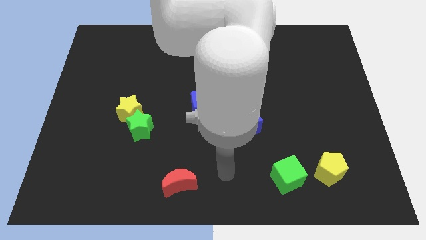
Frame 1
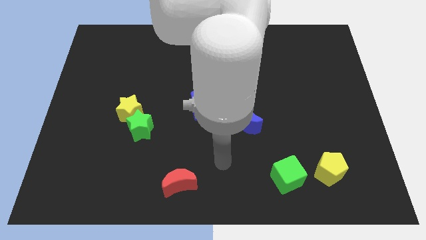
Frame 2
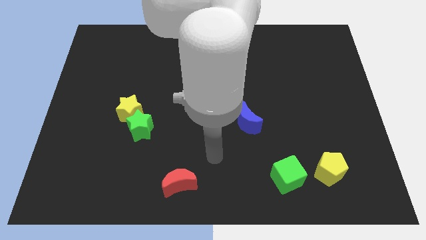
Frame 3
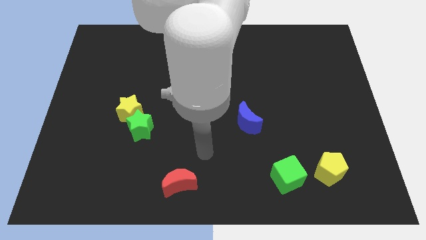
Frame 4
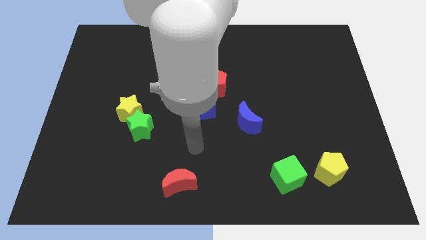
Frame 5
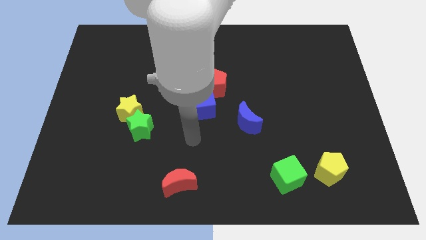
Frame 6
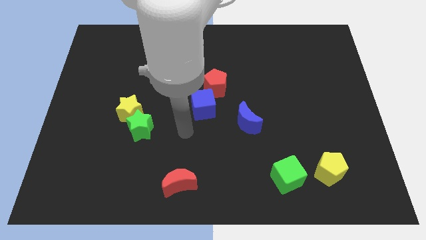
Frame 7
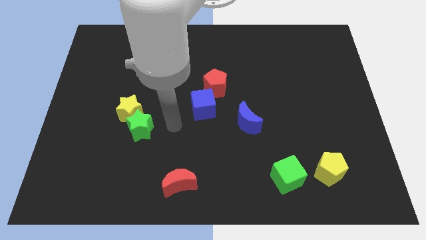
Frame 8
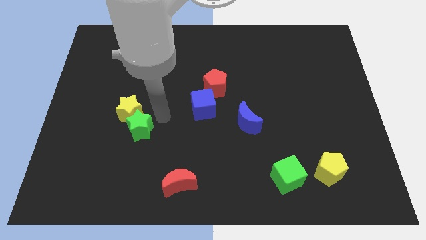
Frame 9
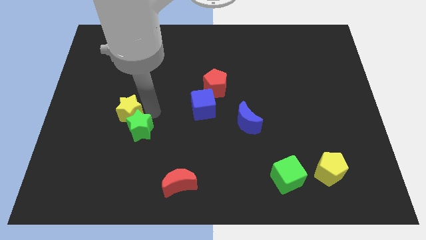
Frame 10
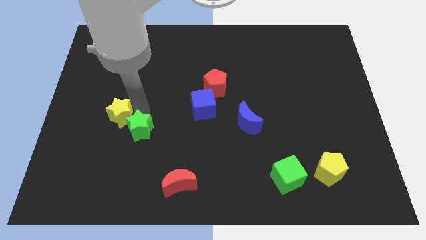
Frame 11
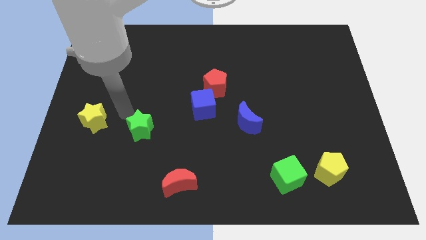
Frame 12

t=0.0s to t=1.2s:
separate the green star from the yellow star

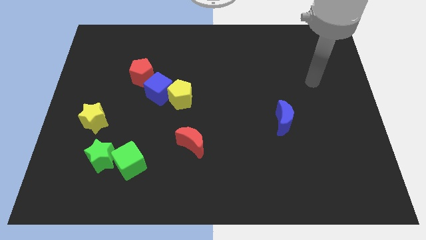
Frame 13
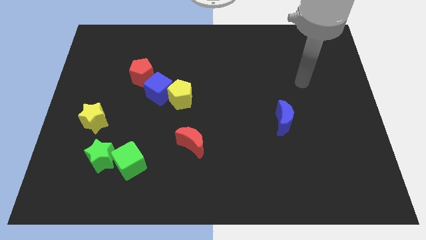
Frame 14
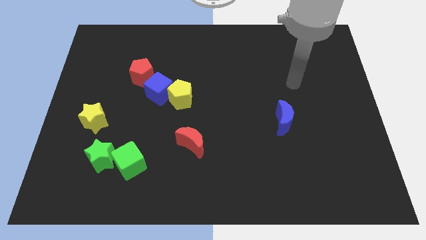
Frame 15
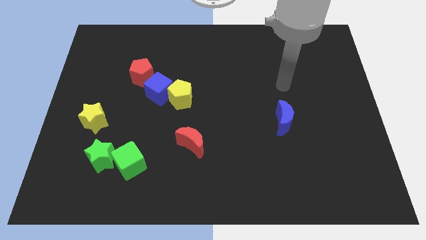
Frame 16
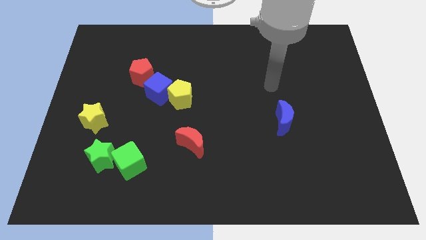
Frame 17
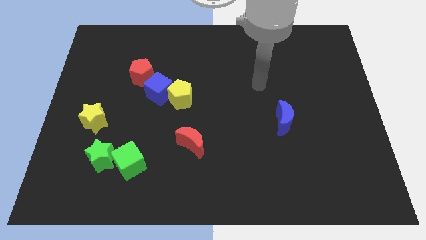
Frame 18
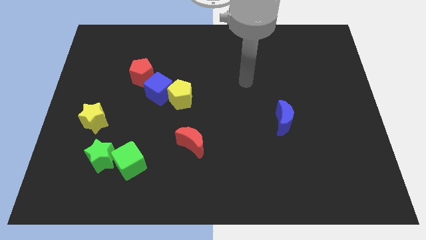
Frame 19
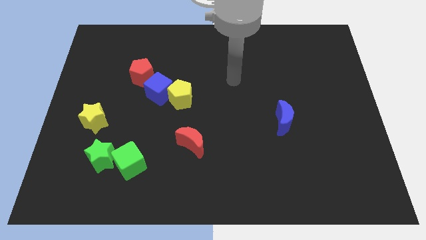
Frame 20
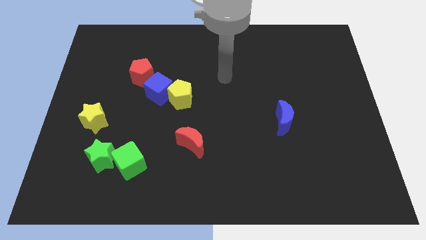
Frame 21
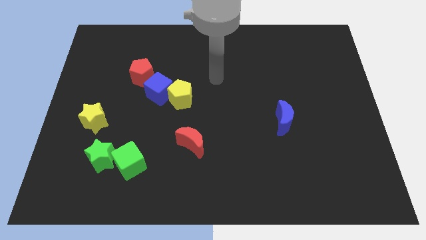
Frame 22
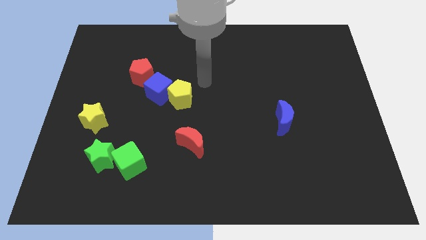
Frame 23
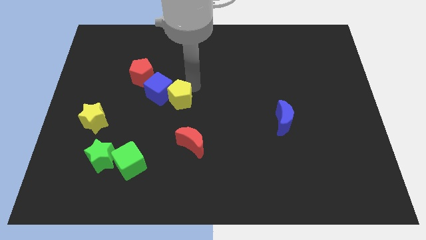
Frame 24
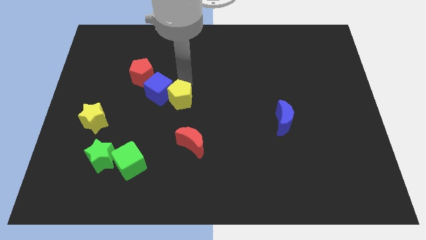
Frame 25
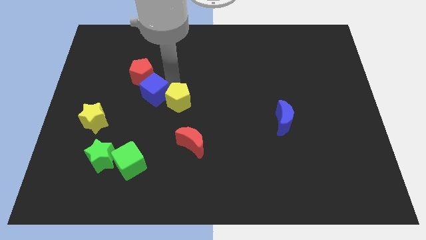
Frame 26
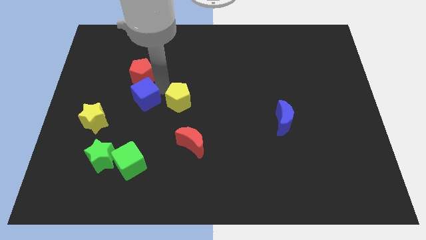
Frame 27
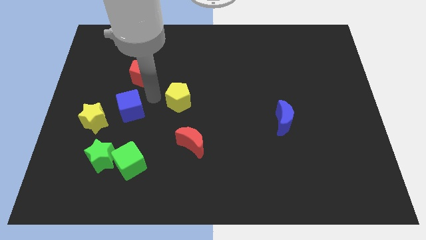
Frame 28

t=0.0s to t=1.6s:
separate the yellow pentagon from the blue cube

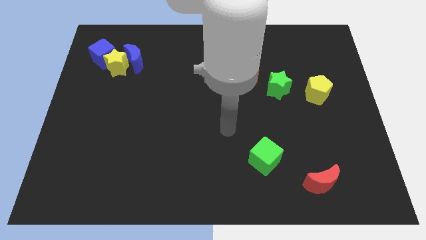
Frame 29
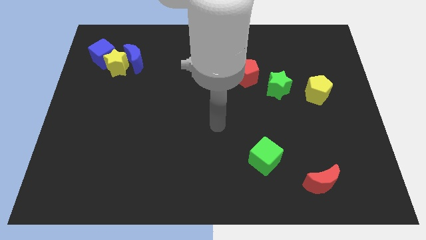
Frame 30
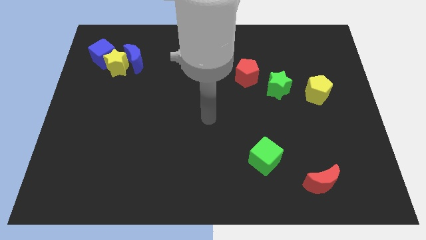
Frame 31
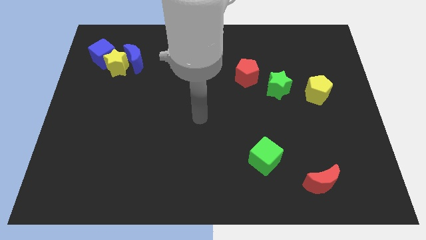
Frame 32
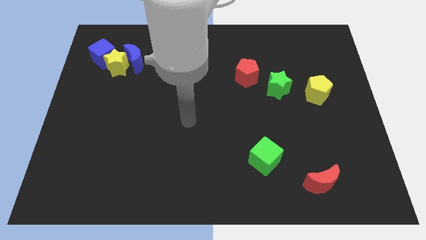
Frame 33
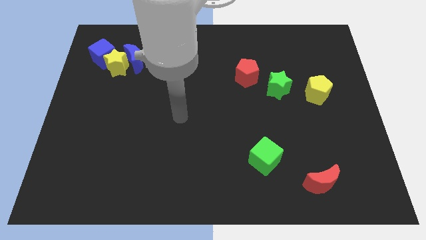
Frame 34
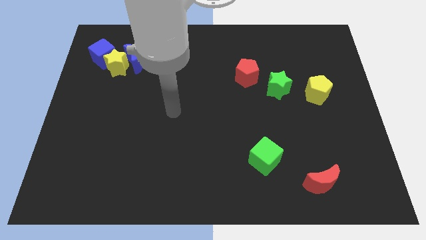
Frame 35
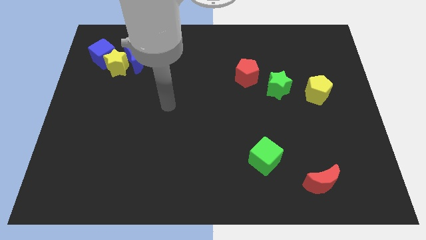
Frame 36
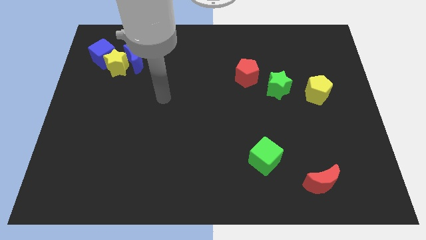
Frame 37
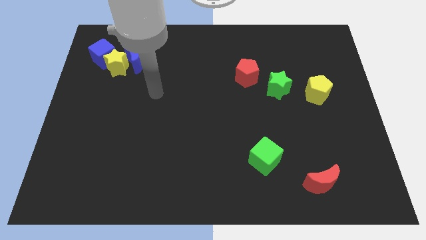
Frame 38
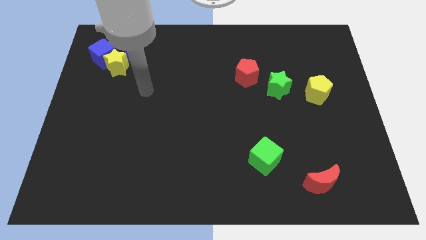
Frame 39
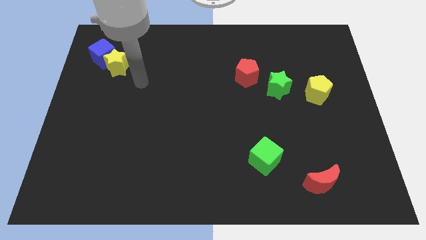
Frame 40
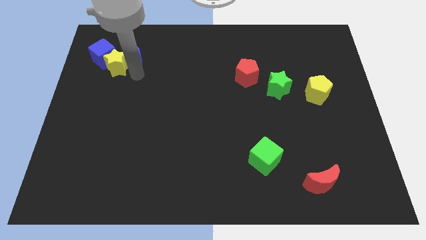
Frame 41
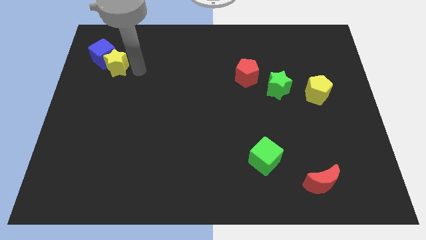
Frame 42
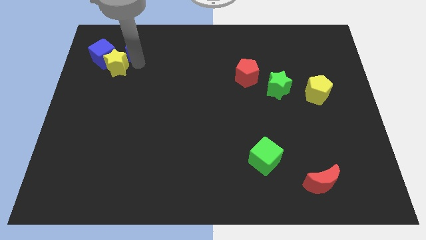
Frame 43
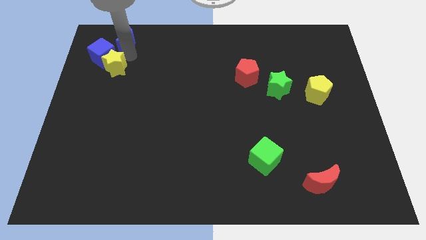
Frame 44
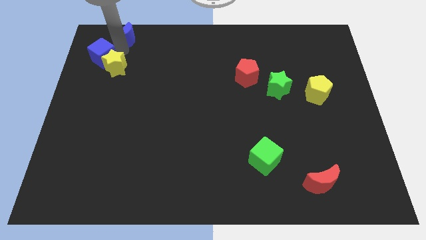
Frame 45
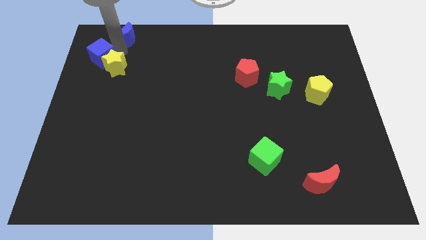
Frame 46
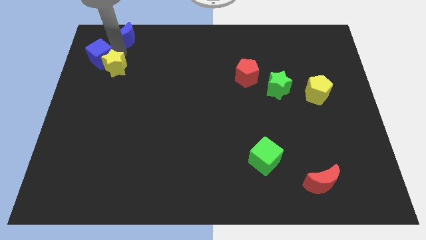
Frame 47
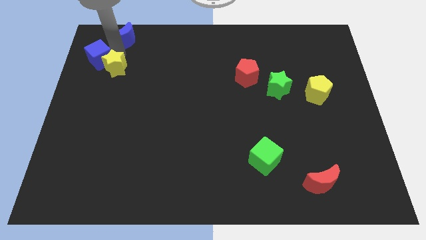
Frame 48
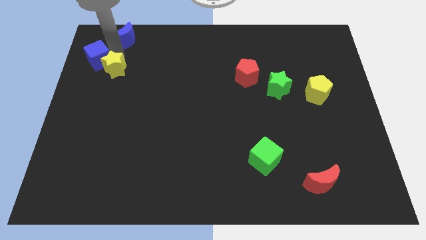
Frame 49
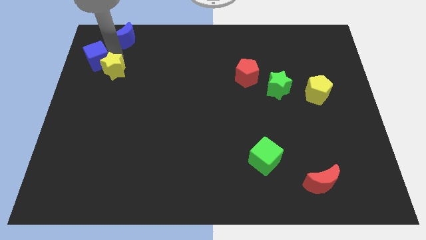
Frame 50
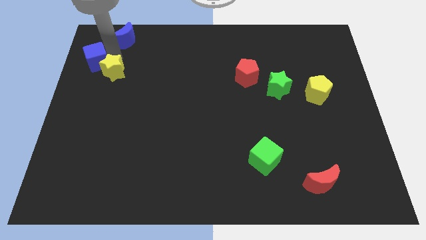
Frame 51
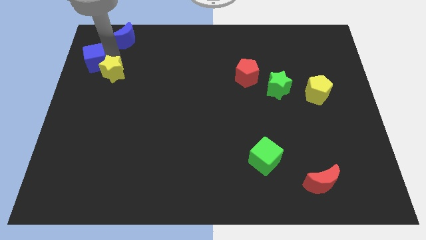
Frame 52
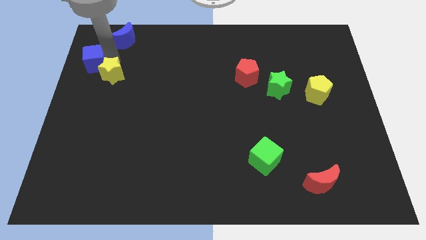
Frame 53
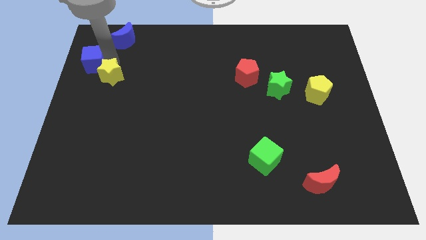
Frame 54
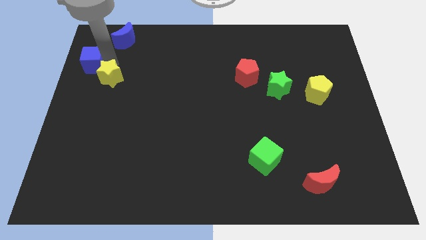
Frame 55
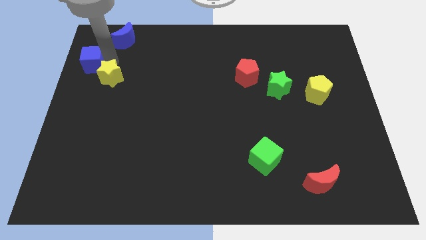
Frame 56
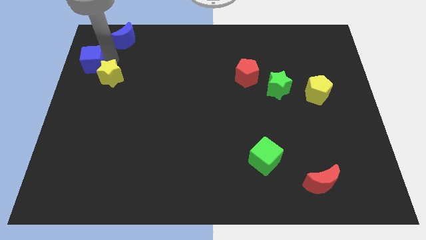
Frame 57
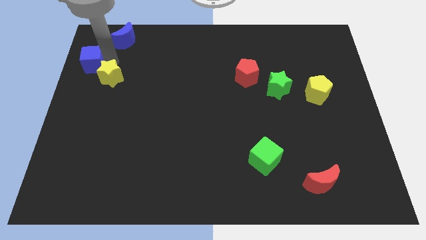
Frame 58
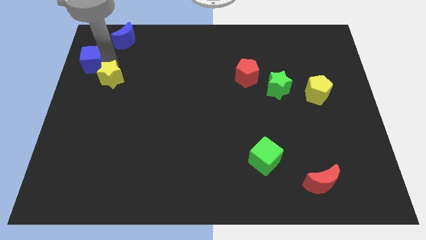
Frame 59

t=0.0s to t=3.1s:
move the yellow star away from the blue moon and blue cube

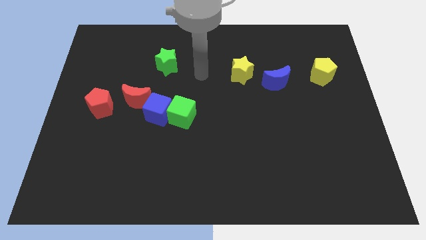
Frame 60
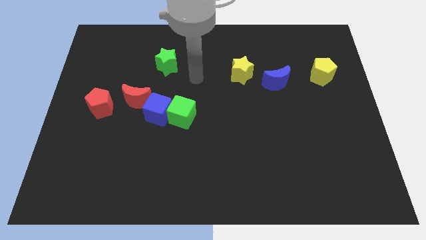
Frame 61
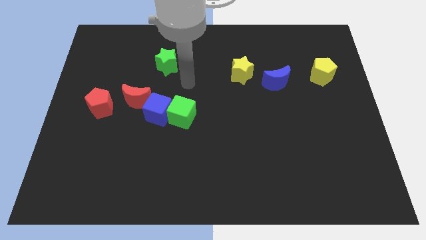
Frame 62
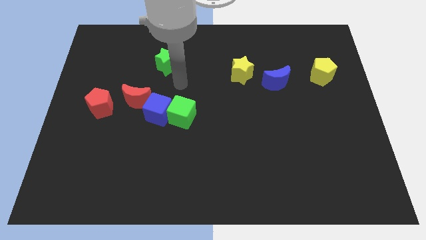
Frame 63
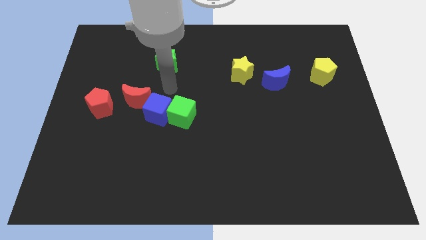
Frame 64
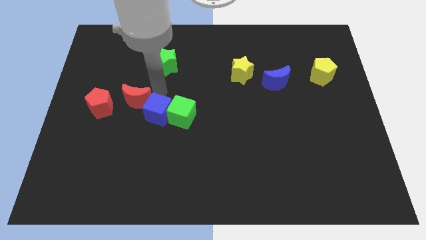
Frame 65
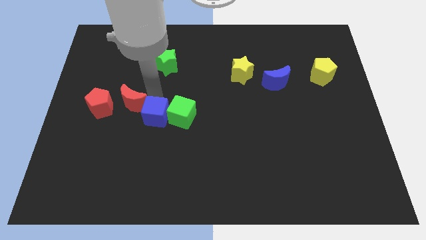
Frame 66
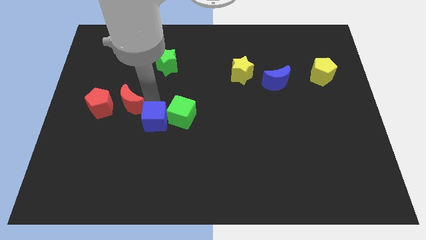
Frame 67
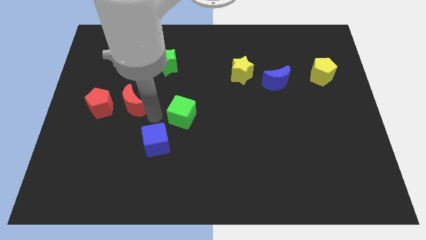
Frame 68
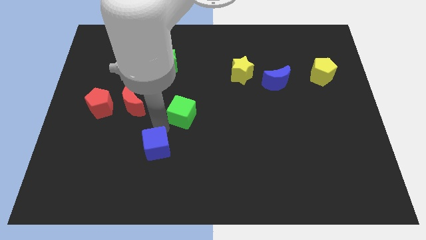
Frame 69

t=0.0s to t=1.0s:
separate the green cube from the blue cube

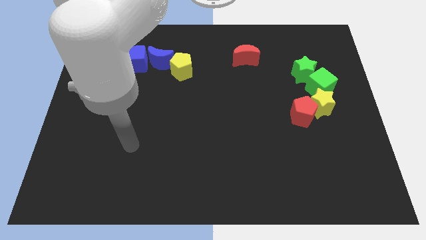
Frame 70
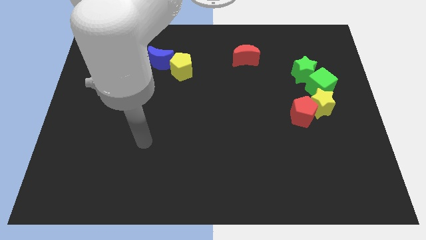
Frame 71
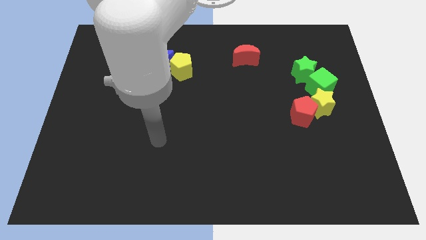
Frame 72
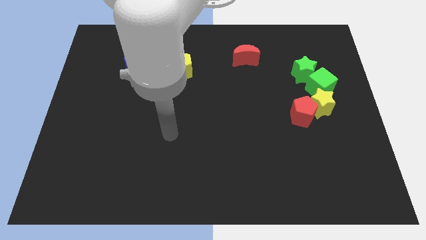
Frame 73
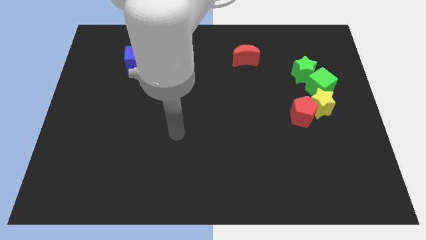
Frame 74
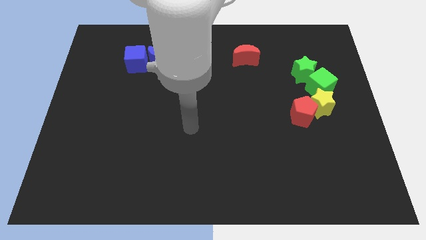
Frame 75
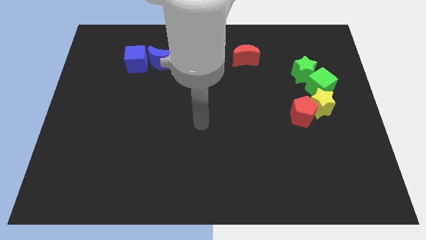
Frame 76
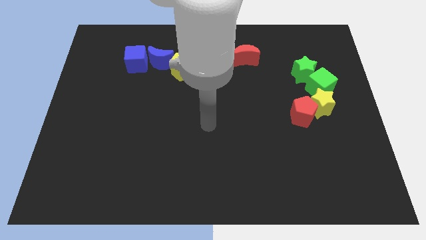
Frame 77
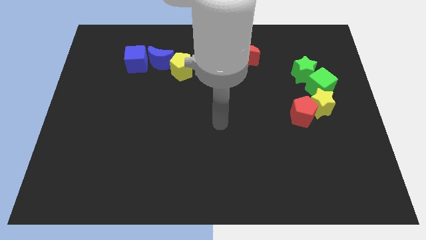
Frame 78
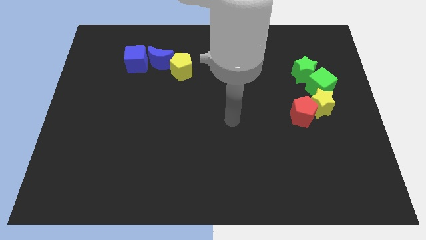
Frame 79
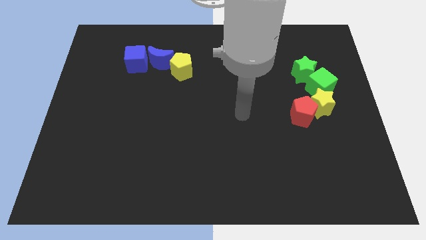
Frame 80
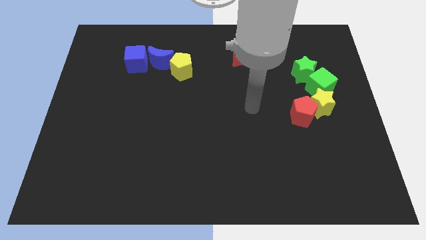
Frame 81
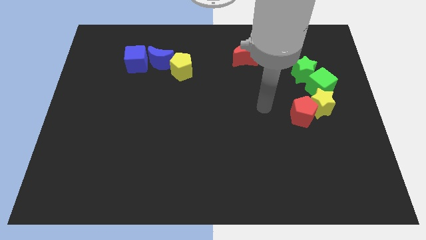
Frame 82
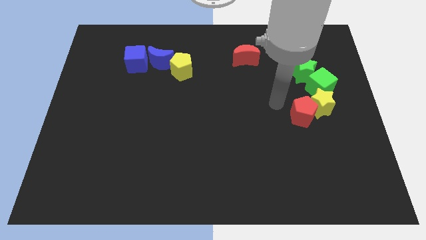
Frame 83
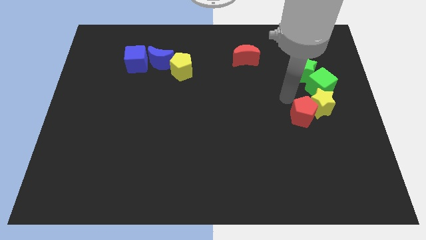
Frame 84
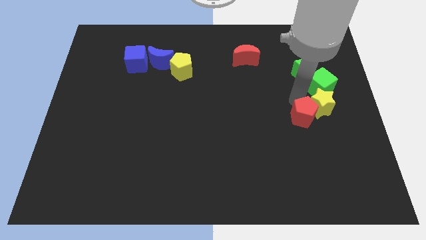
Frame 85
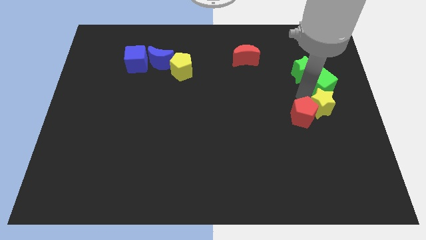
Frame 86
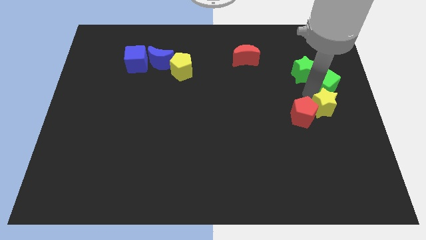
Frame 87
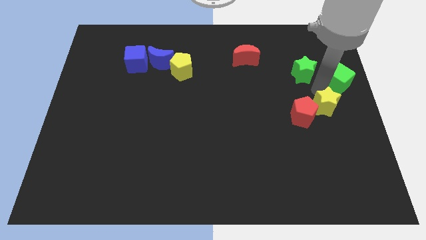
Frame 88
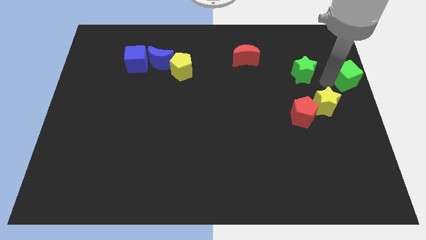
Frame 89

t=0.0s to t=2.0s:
separate the green star from the green cube

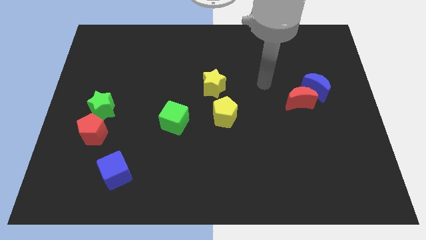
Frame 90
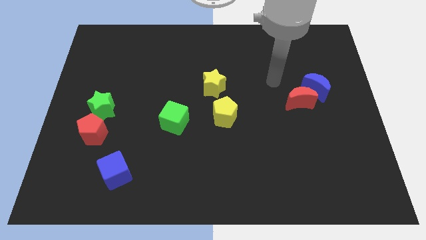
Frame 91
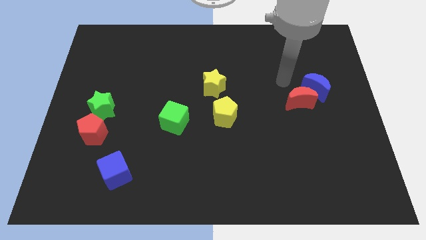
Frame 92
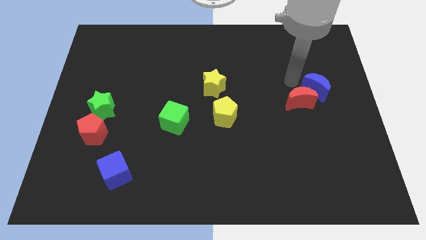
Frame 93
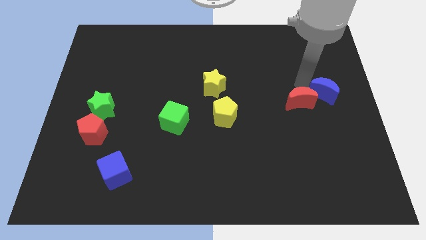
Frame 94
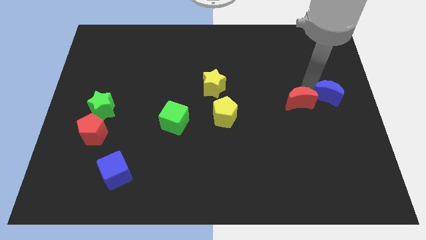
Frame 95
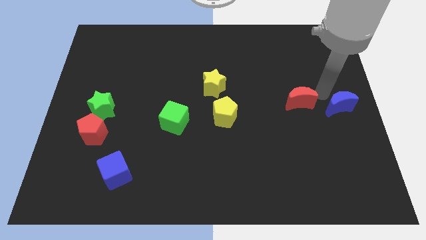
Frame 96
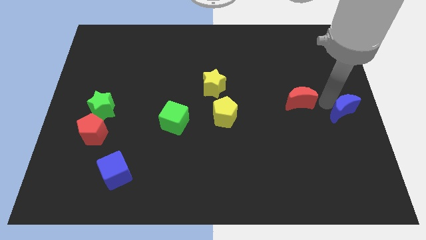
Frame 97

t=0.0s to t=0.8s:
separate the red moon from the blue moon
